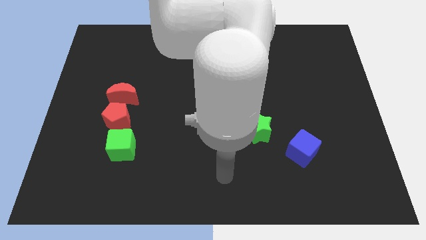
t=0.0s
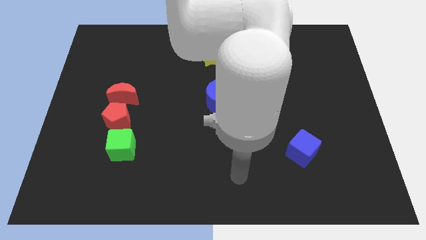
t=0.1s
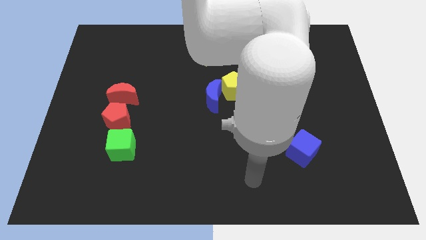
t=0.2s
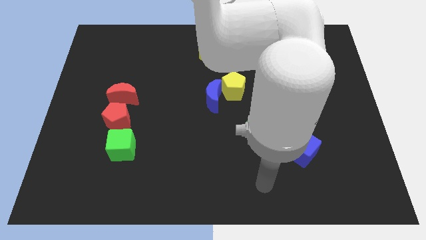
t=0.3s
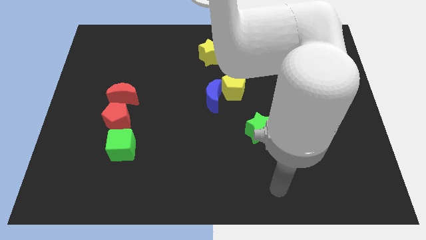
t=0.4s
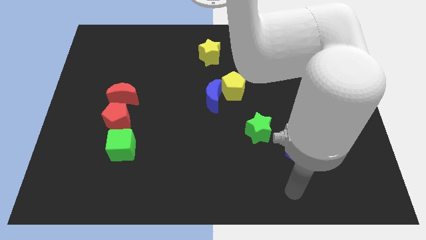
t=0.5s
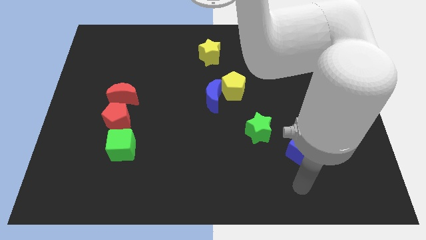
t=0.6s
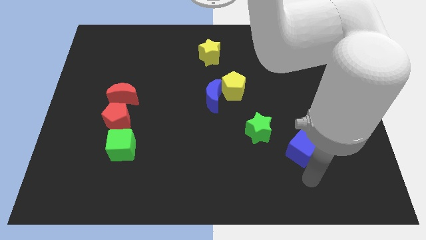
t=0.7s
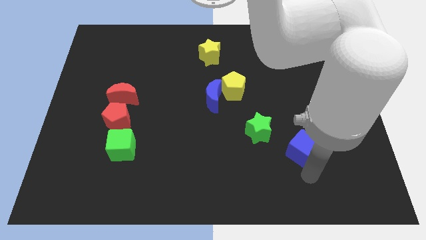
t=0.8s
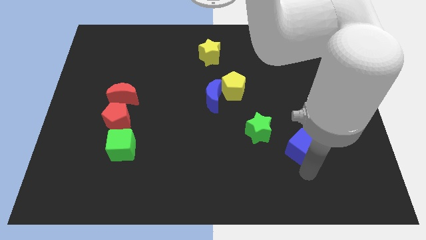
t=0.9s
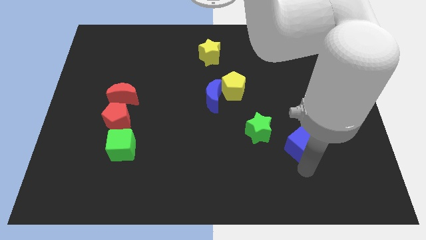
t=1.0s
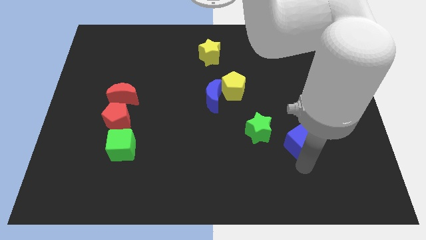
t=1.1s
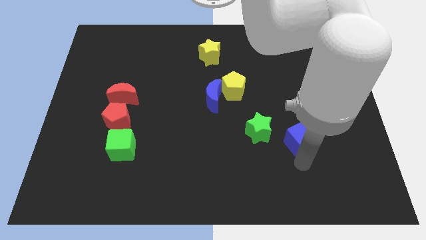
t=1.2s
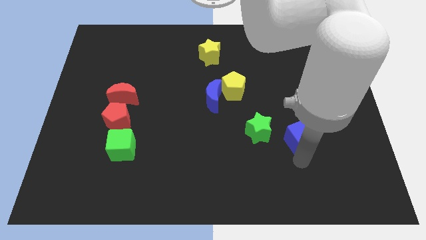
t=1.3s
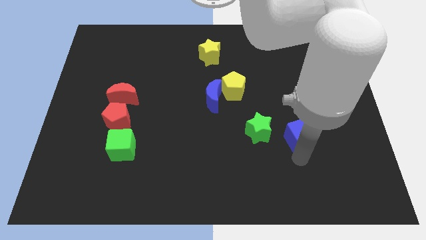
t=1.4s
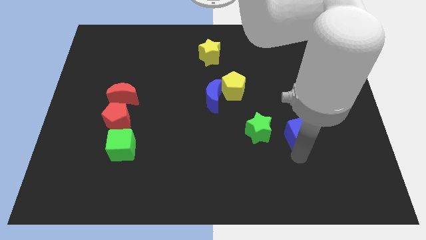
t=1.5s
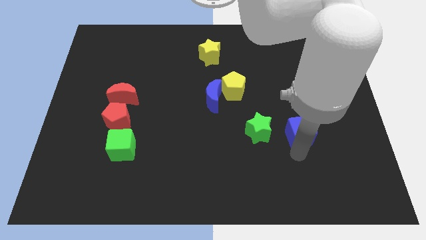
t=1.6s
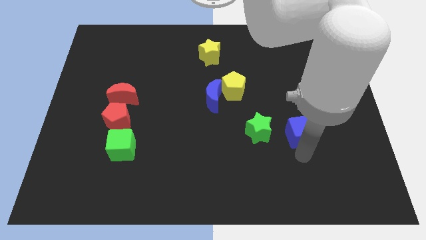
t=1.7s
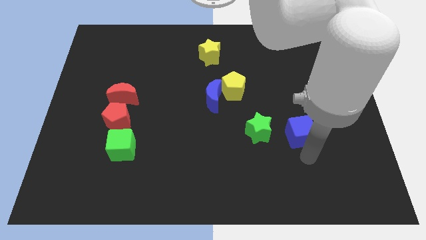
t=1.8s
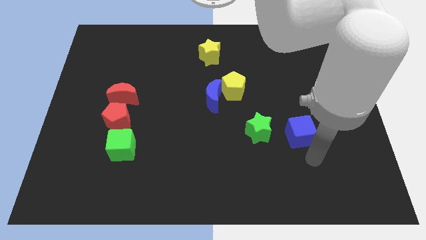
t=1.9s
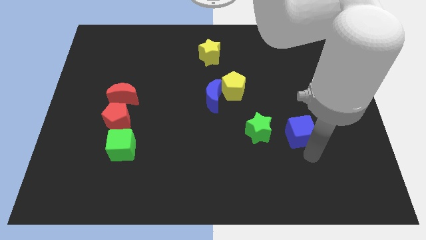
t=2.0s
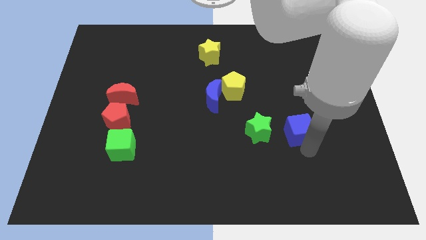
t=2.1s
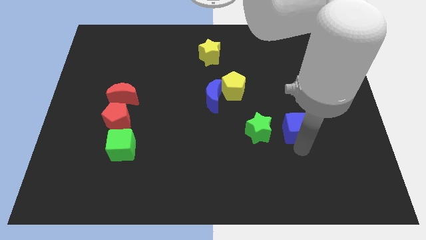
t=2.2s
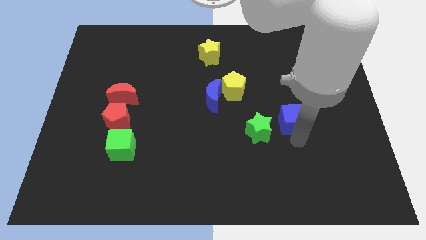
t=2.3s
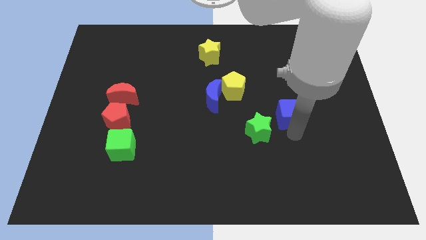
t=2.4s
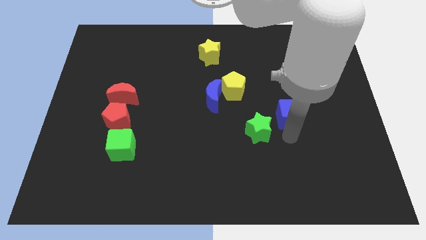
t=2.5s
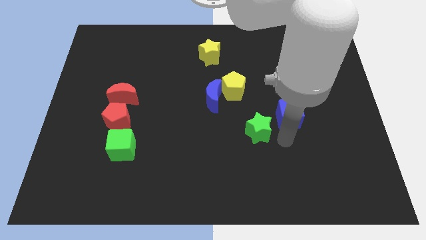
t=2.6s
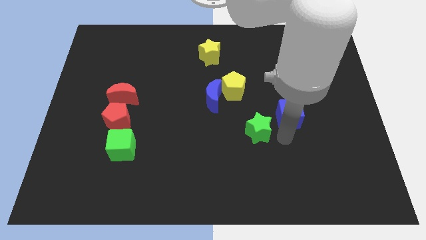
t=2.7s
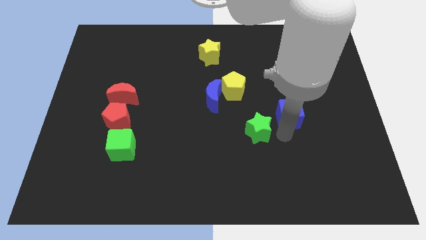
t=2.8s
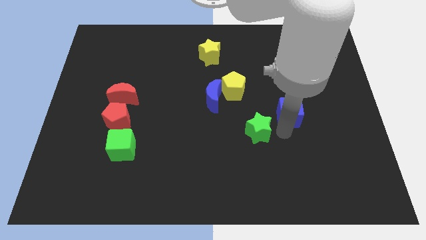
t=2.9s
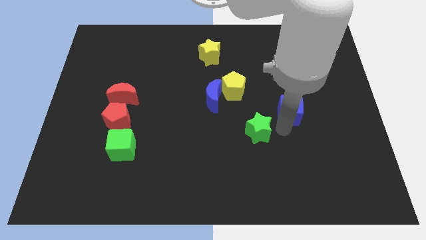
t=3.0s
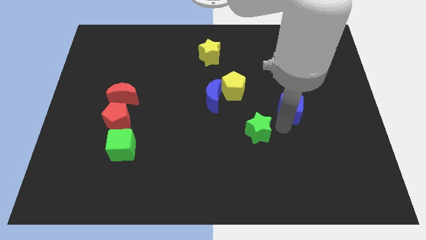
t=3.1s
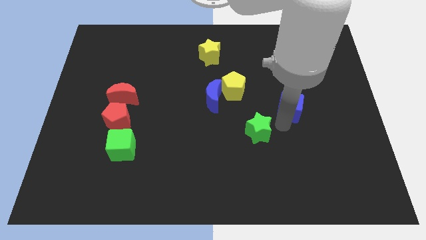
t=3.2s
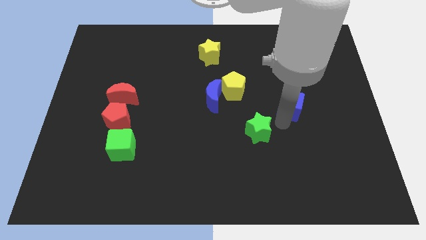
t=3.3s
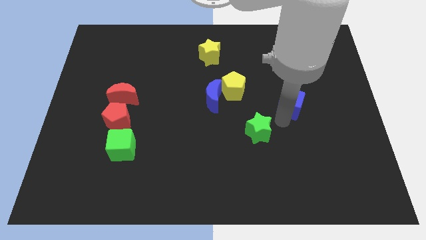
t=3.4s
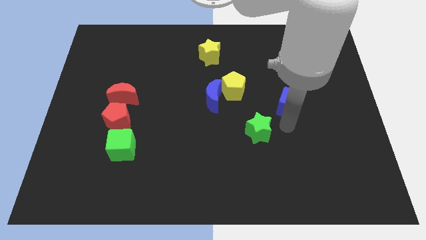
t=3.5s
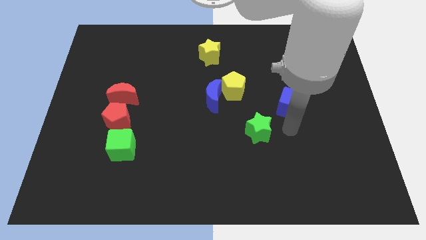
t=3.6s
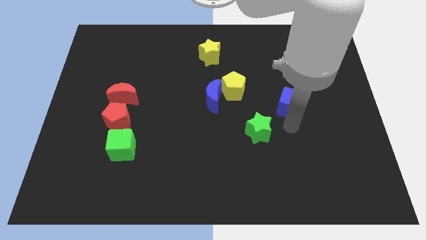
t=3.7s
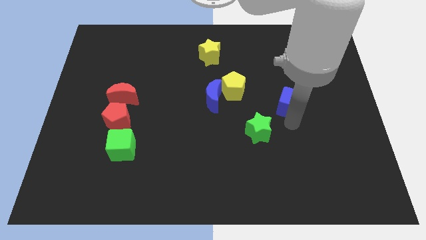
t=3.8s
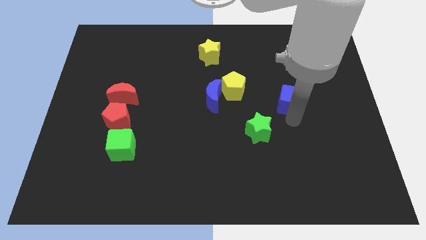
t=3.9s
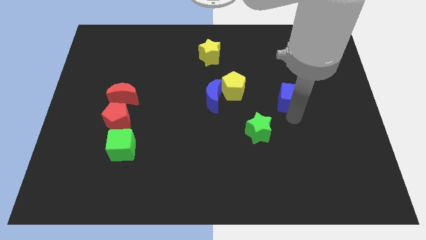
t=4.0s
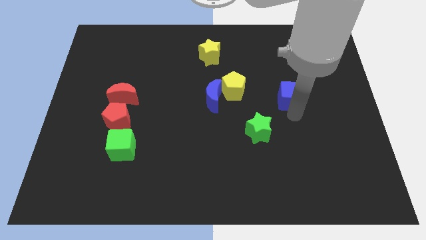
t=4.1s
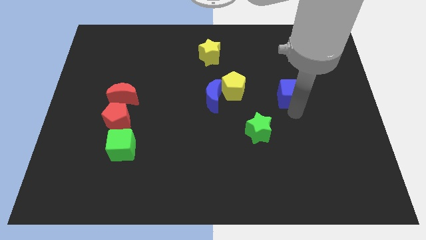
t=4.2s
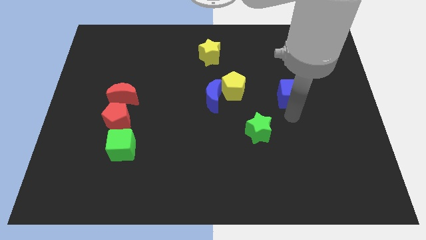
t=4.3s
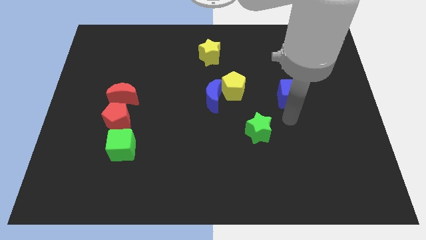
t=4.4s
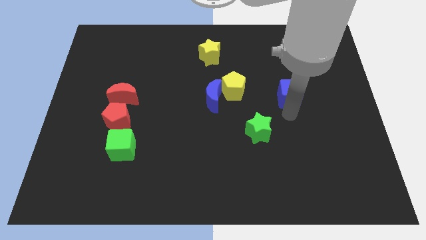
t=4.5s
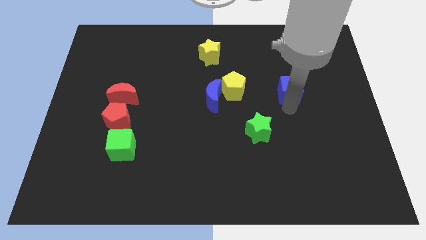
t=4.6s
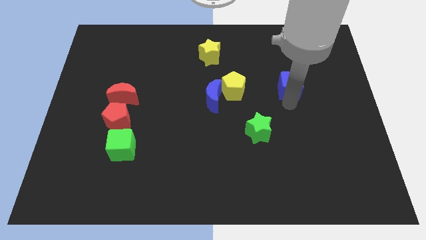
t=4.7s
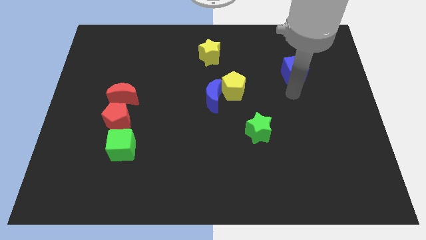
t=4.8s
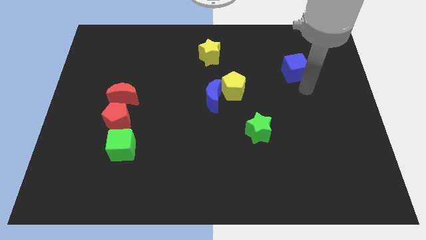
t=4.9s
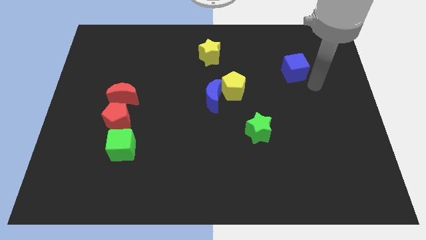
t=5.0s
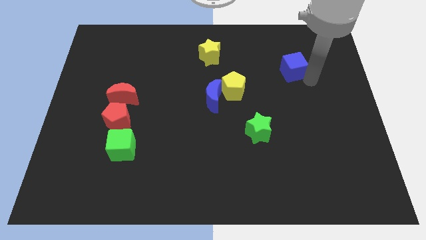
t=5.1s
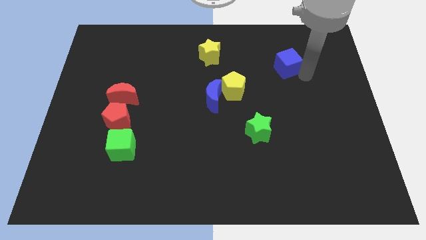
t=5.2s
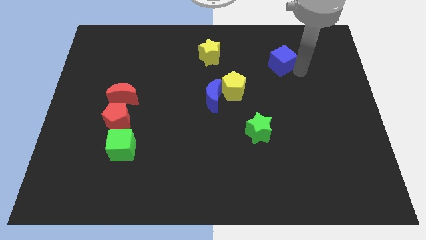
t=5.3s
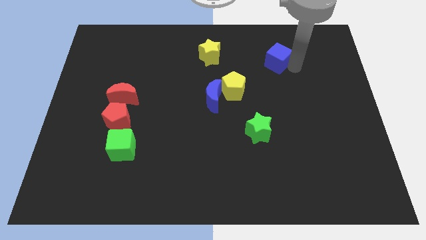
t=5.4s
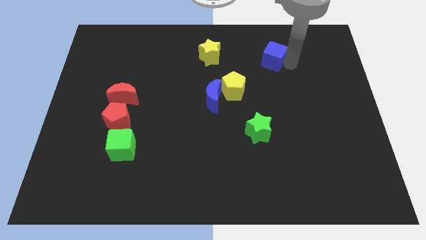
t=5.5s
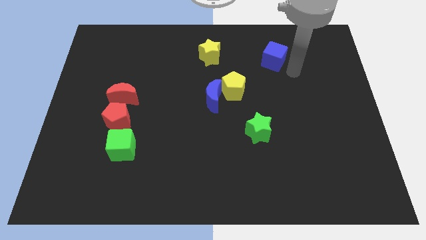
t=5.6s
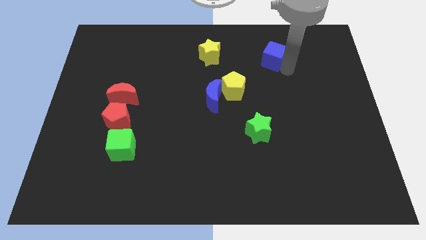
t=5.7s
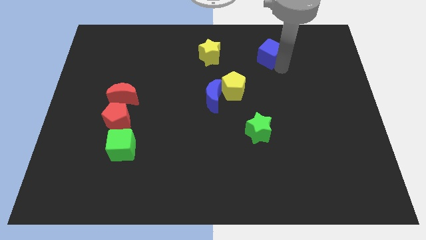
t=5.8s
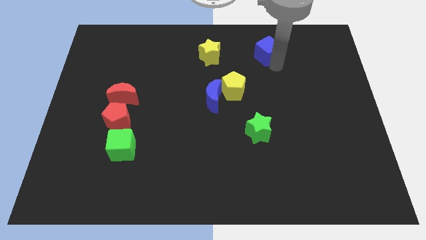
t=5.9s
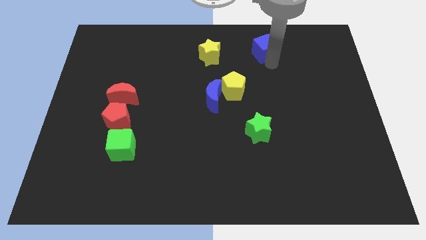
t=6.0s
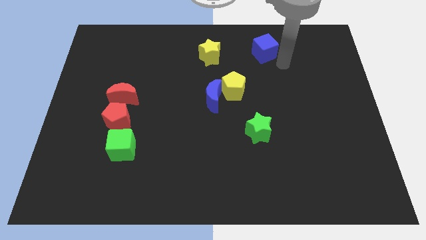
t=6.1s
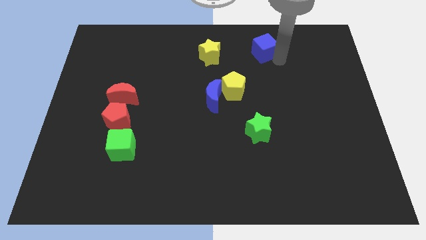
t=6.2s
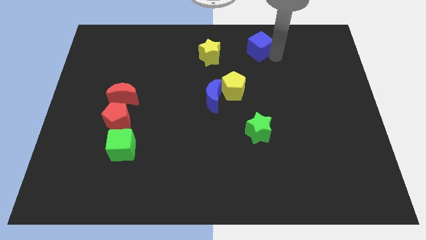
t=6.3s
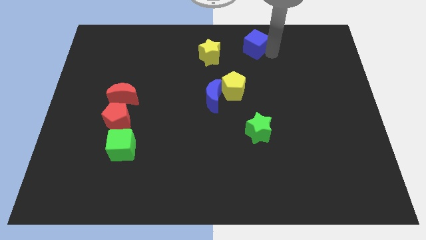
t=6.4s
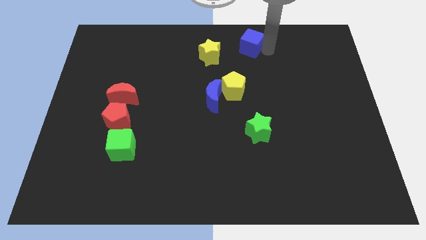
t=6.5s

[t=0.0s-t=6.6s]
move the blue cube to the top side
